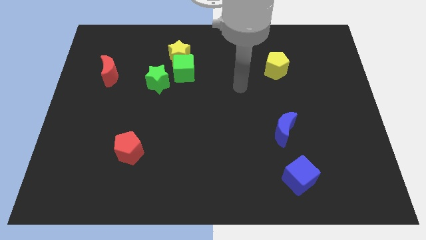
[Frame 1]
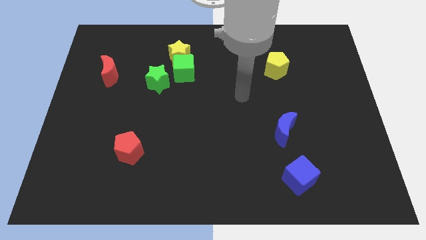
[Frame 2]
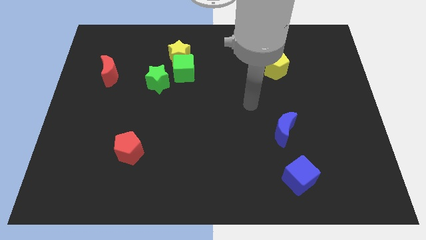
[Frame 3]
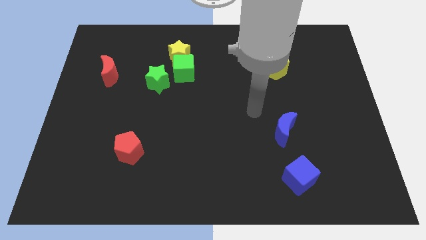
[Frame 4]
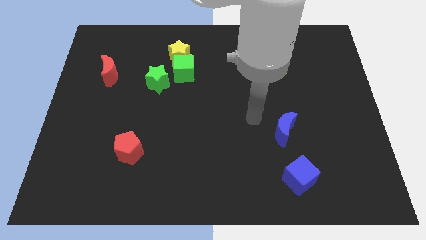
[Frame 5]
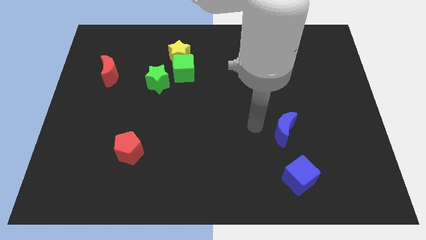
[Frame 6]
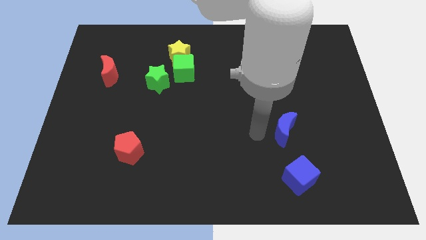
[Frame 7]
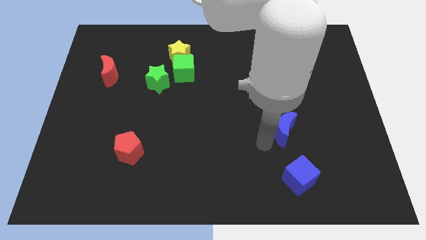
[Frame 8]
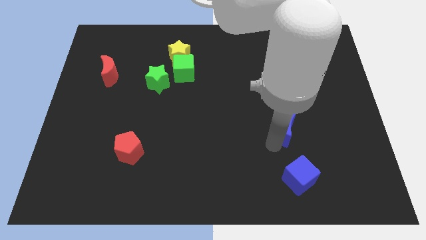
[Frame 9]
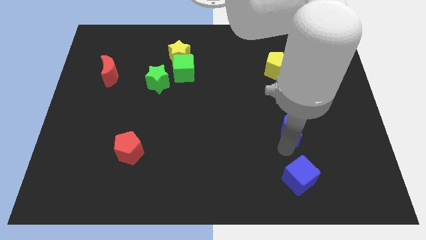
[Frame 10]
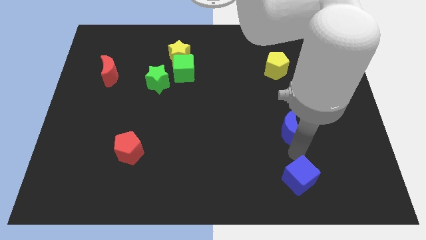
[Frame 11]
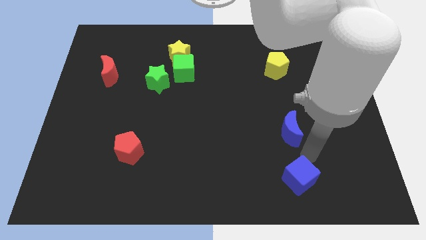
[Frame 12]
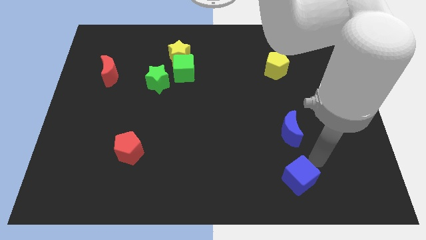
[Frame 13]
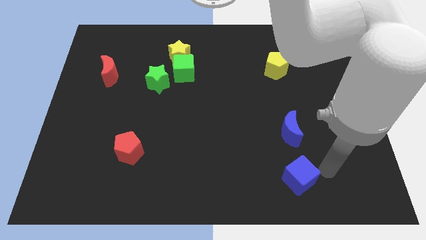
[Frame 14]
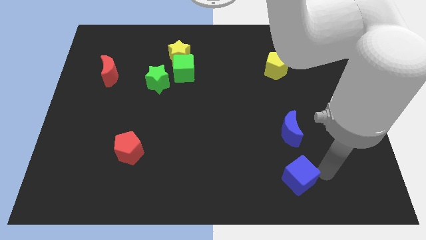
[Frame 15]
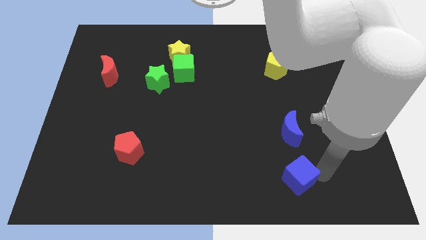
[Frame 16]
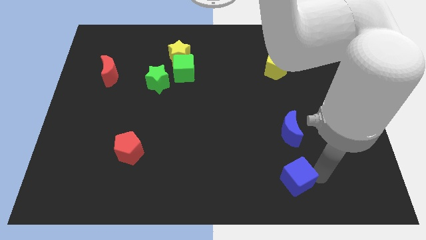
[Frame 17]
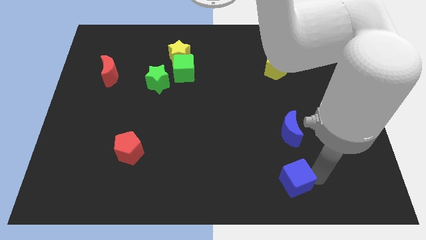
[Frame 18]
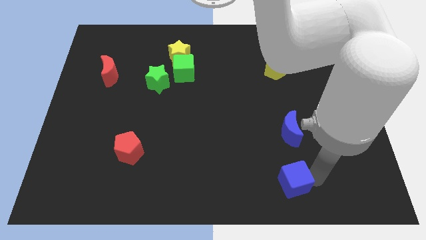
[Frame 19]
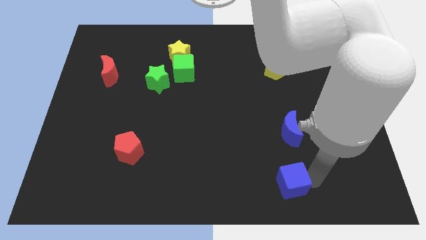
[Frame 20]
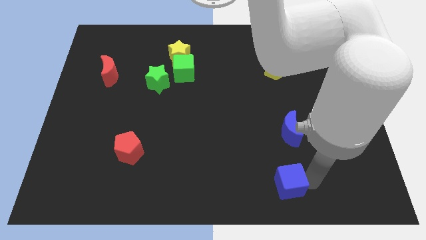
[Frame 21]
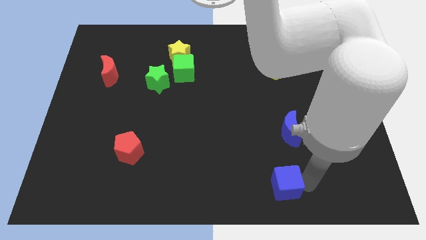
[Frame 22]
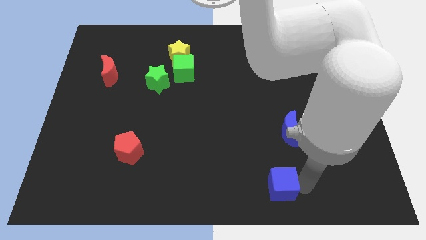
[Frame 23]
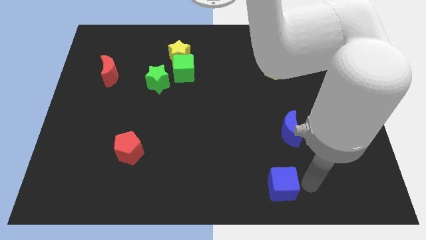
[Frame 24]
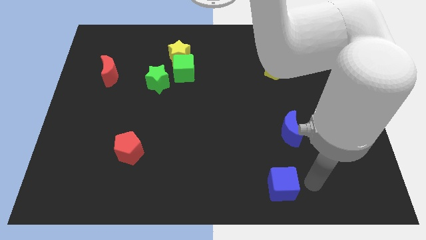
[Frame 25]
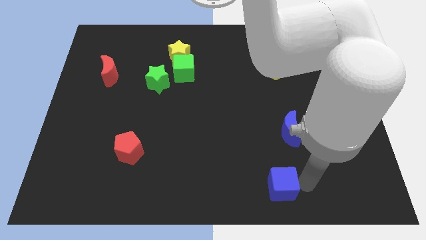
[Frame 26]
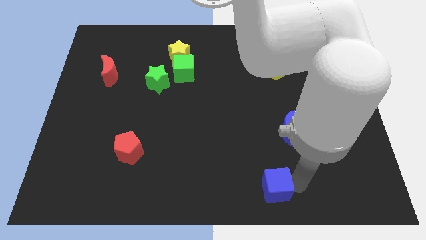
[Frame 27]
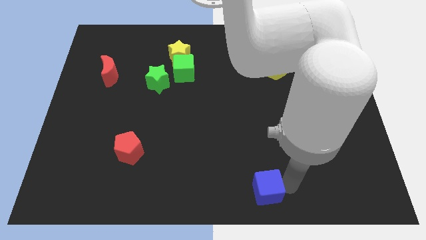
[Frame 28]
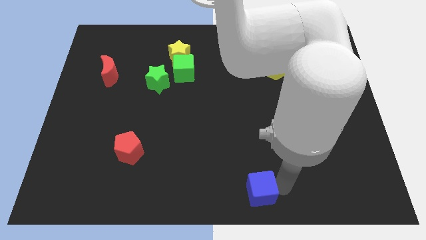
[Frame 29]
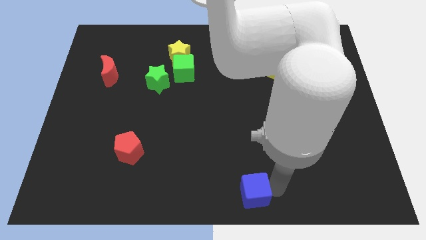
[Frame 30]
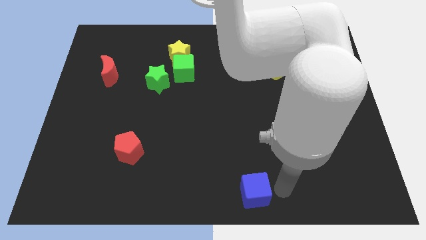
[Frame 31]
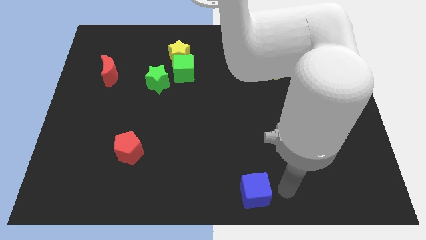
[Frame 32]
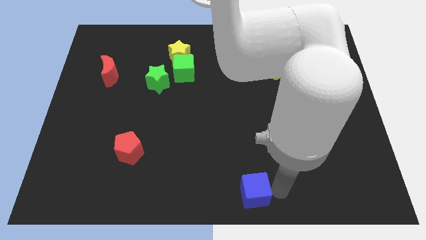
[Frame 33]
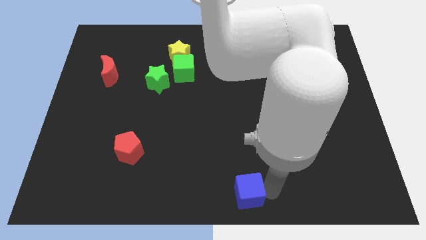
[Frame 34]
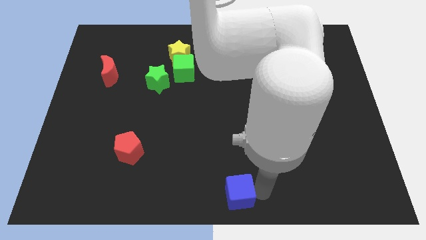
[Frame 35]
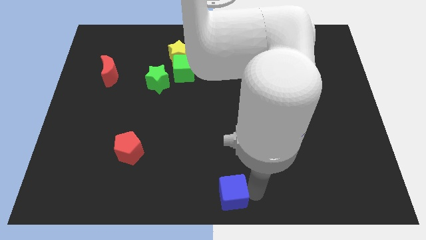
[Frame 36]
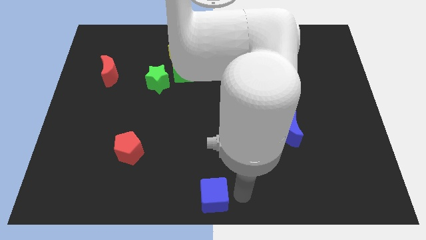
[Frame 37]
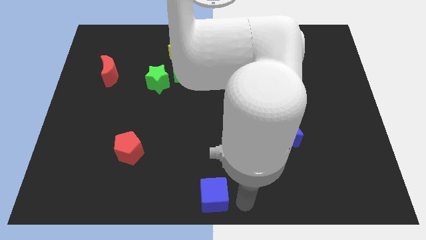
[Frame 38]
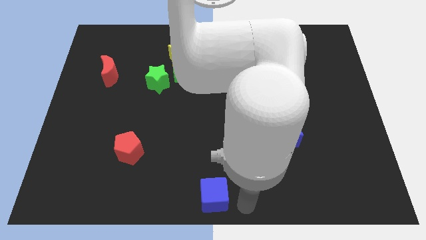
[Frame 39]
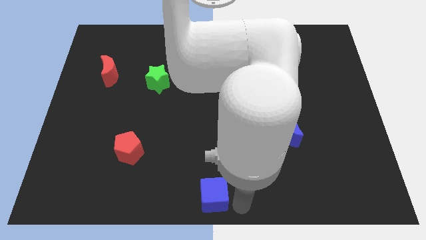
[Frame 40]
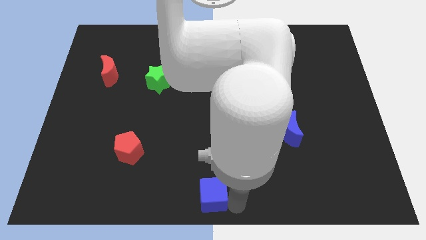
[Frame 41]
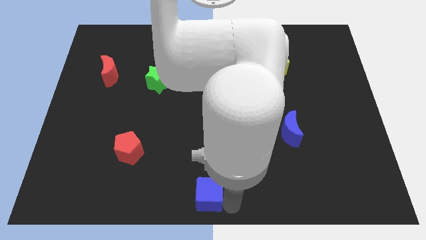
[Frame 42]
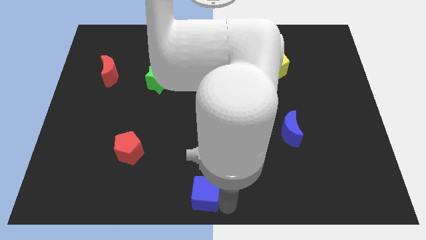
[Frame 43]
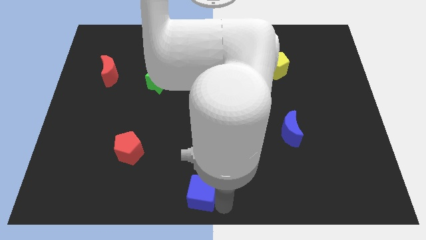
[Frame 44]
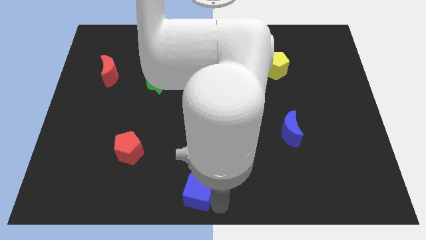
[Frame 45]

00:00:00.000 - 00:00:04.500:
push the blue cube left

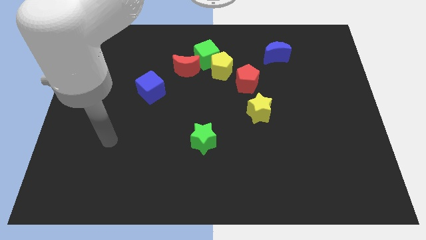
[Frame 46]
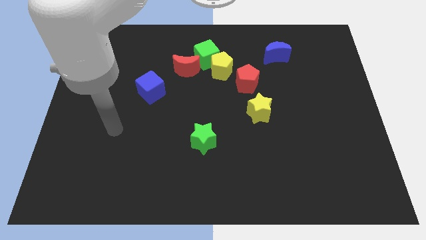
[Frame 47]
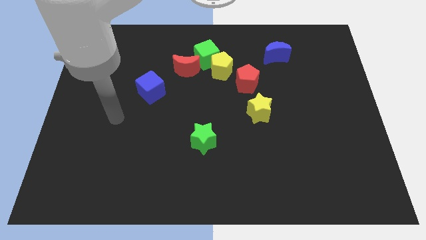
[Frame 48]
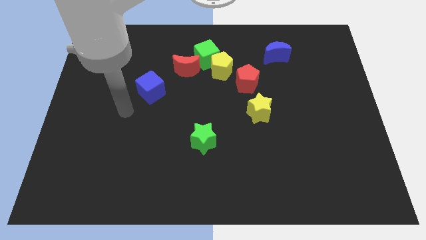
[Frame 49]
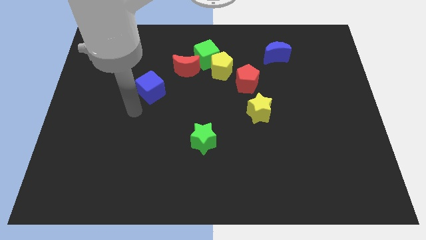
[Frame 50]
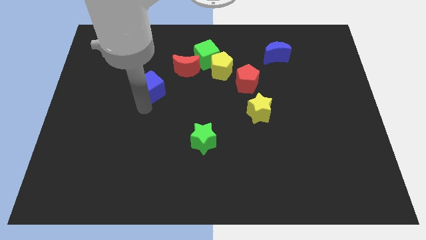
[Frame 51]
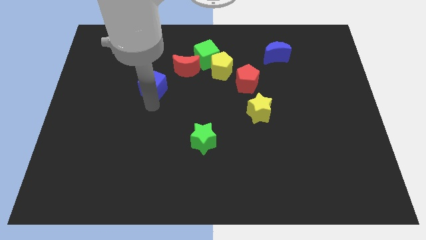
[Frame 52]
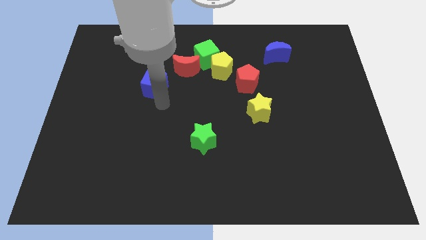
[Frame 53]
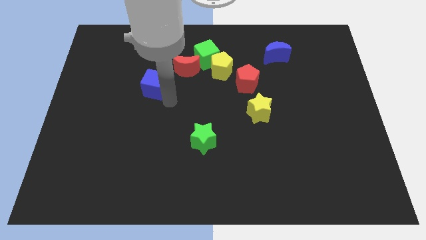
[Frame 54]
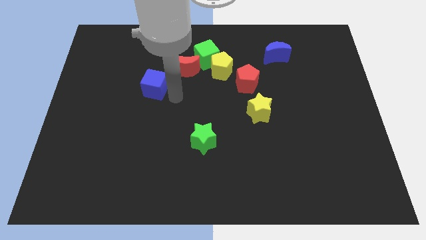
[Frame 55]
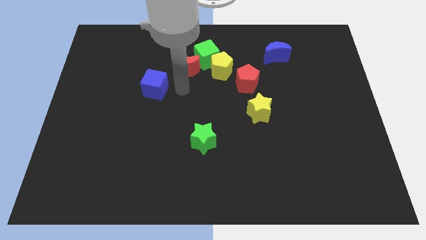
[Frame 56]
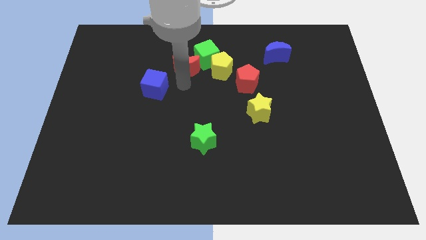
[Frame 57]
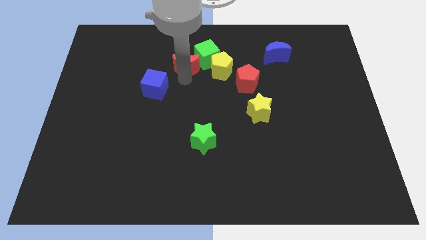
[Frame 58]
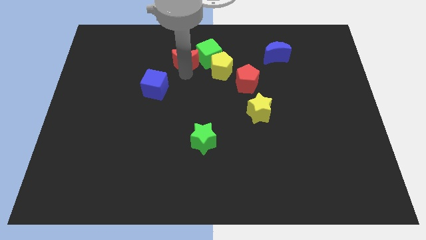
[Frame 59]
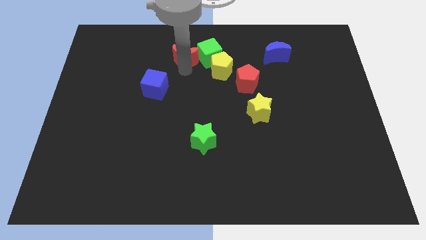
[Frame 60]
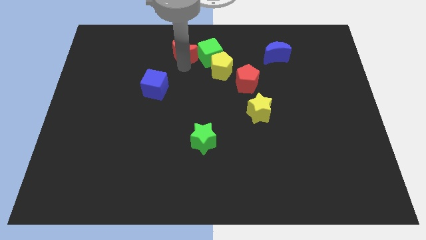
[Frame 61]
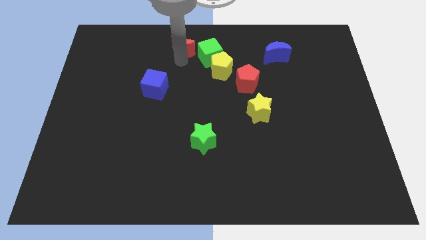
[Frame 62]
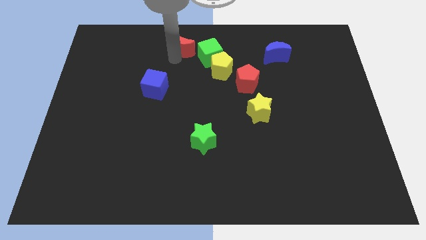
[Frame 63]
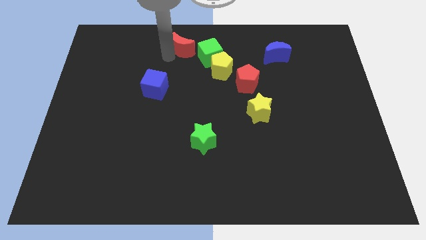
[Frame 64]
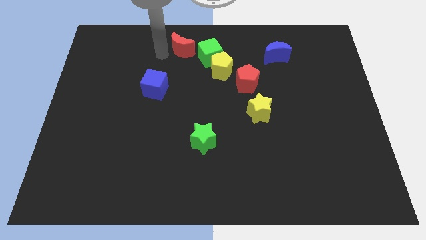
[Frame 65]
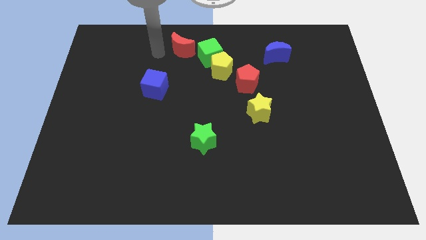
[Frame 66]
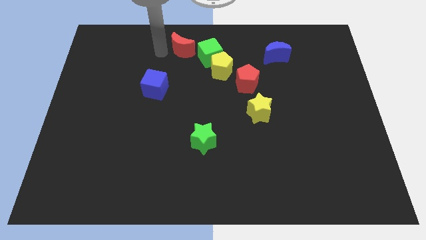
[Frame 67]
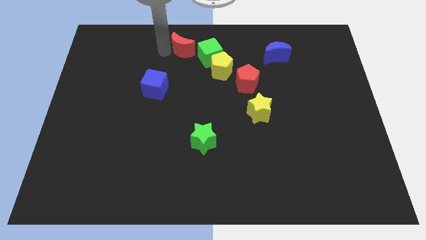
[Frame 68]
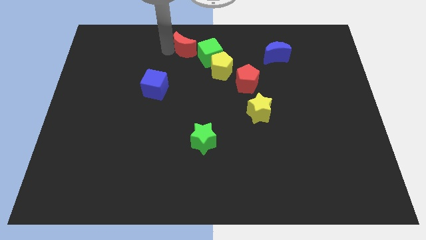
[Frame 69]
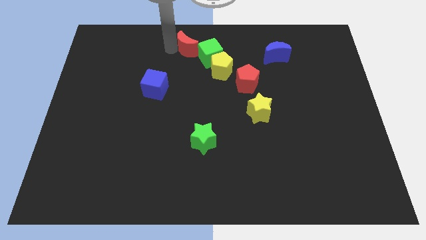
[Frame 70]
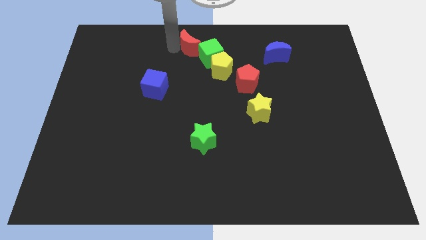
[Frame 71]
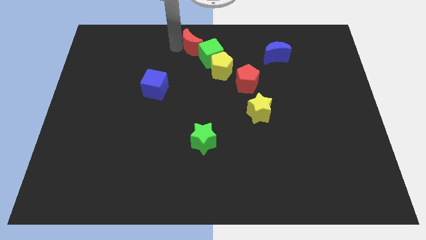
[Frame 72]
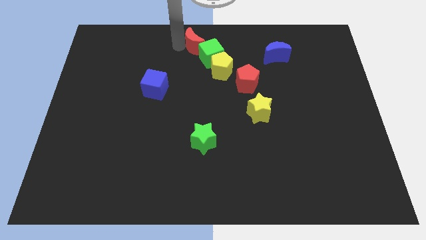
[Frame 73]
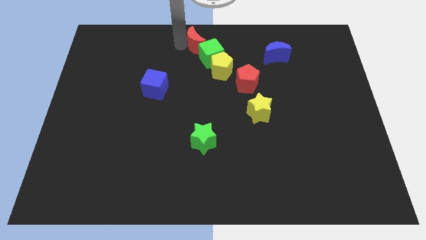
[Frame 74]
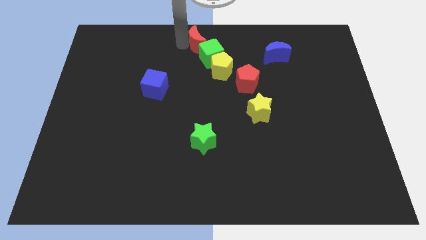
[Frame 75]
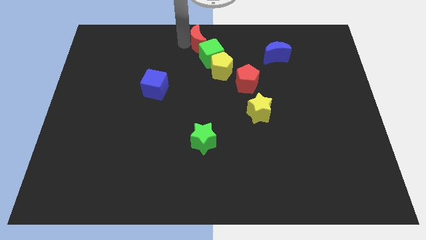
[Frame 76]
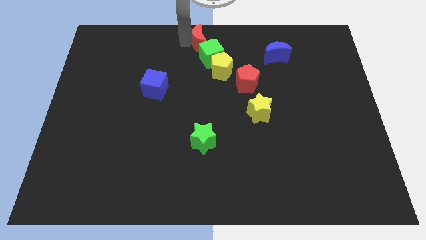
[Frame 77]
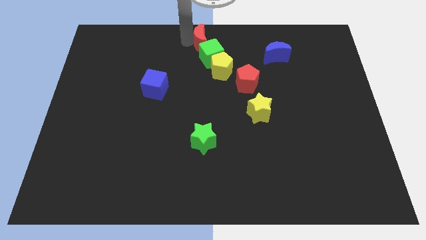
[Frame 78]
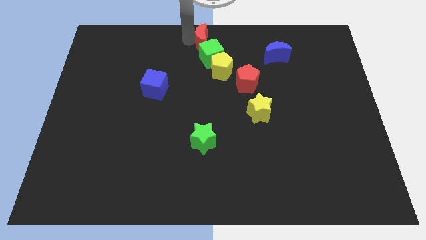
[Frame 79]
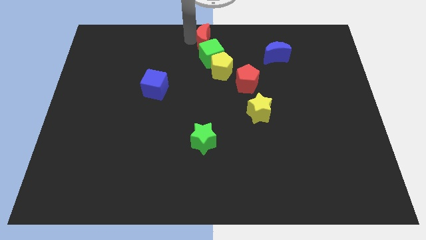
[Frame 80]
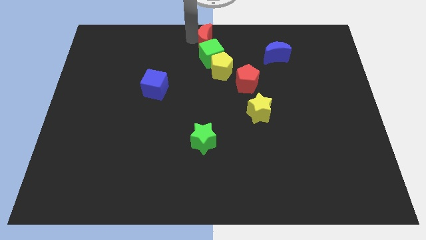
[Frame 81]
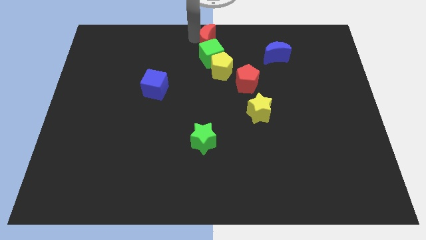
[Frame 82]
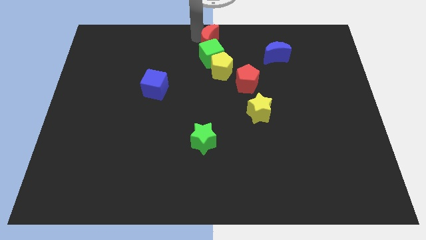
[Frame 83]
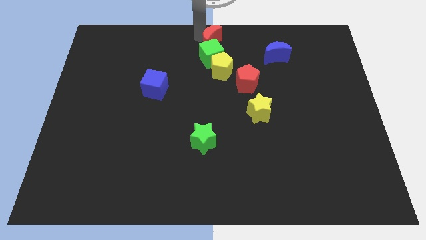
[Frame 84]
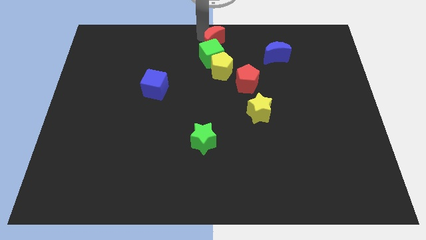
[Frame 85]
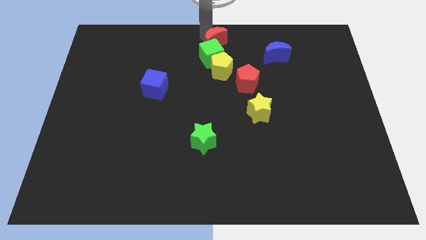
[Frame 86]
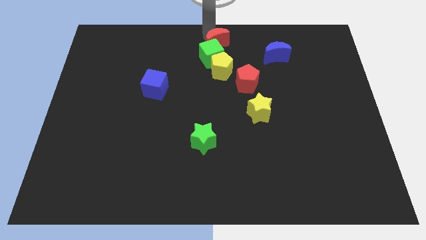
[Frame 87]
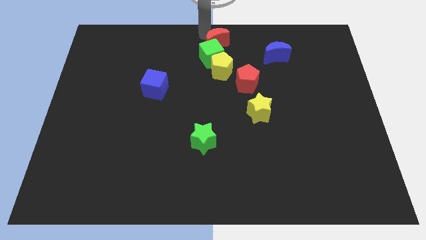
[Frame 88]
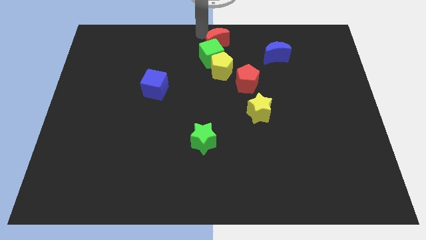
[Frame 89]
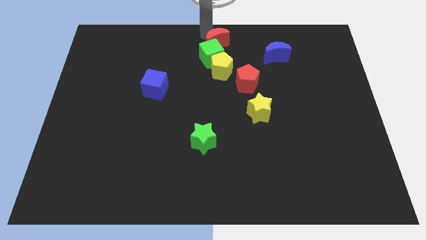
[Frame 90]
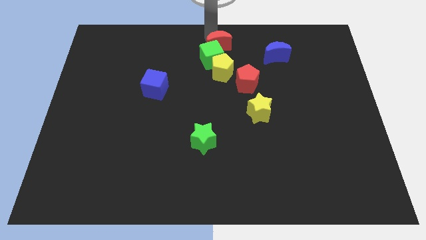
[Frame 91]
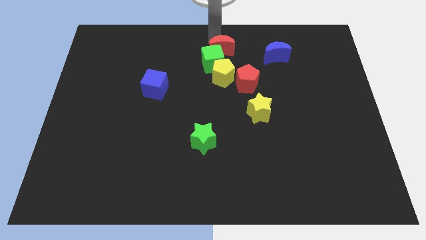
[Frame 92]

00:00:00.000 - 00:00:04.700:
move the red moon a little bit right
